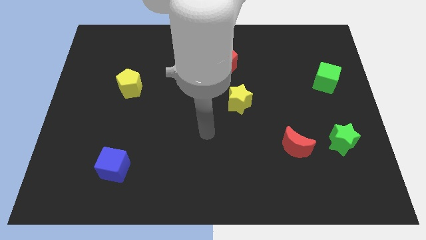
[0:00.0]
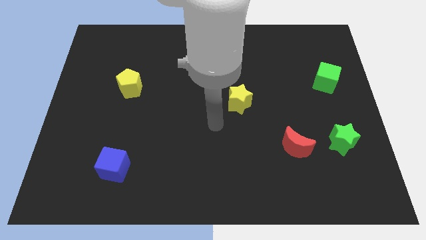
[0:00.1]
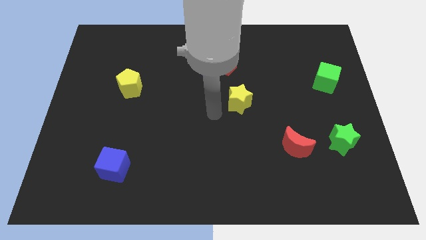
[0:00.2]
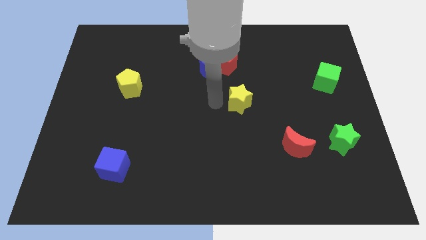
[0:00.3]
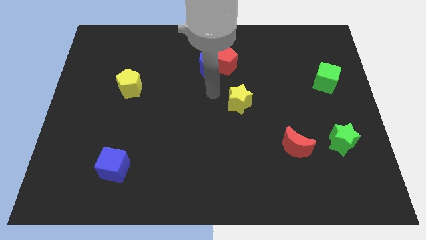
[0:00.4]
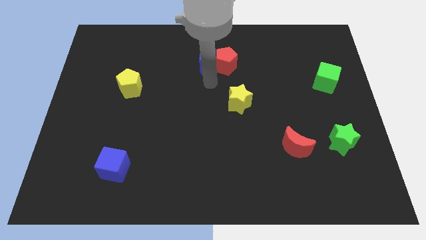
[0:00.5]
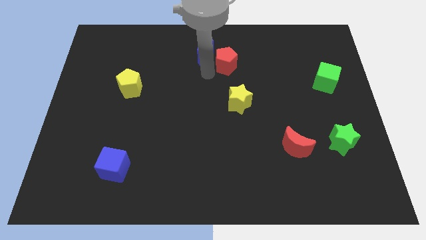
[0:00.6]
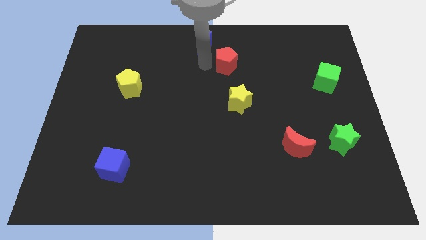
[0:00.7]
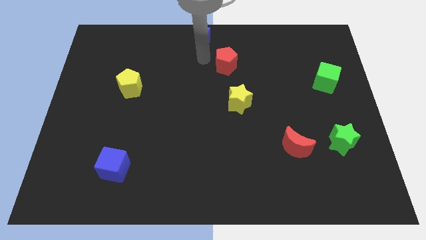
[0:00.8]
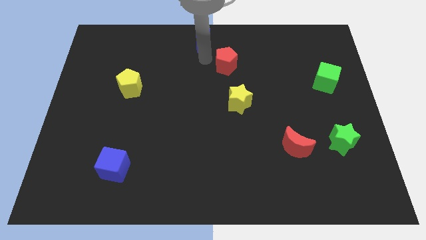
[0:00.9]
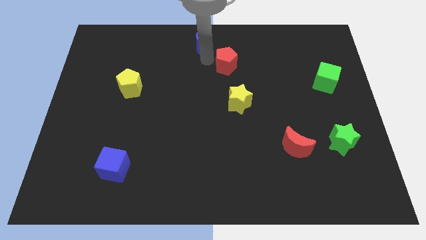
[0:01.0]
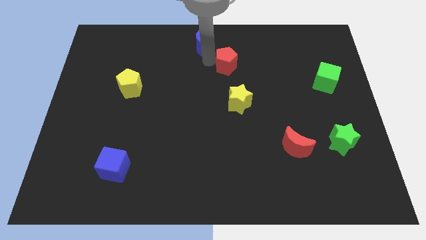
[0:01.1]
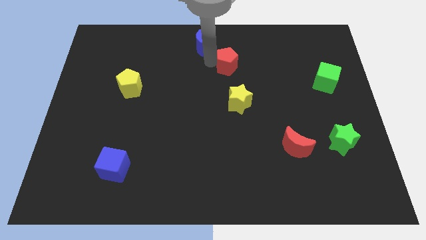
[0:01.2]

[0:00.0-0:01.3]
separate the red pentagon from the blue moon

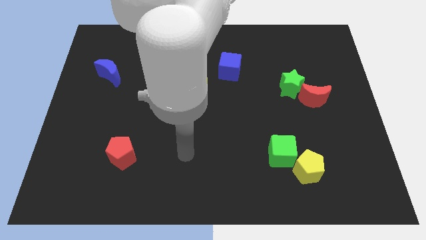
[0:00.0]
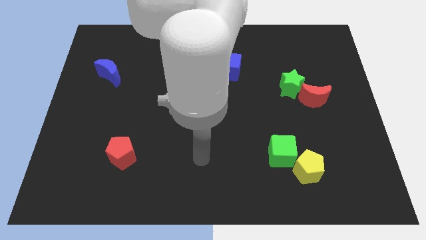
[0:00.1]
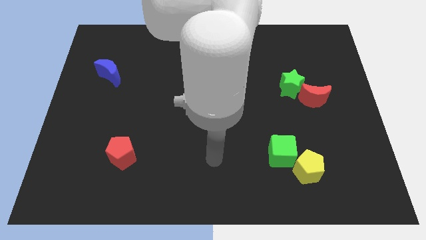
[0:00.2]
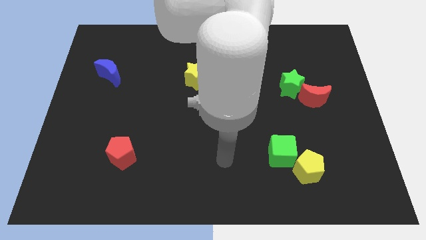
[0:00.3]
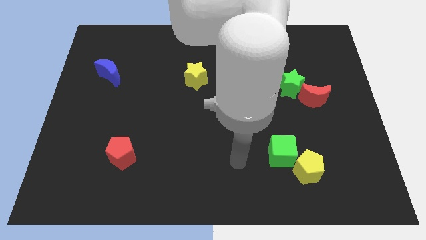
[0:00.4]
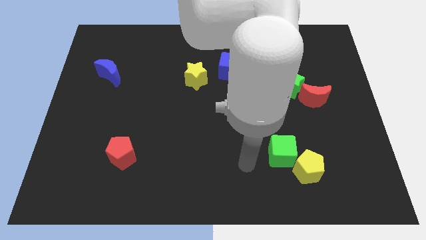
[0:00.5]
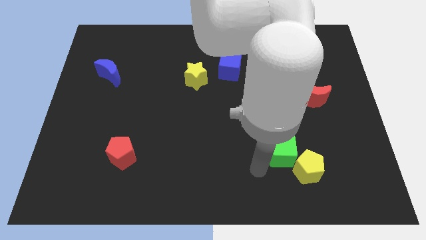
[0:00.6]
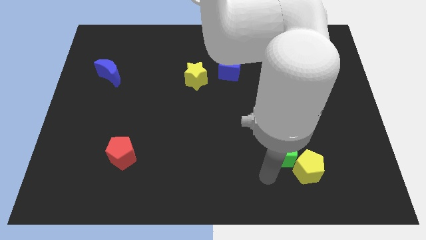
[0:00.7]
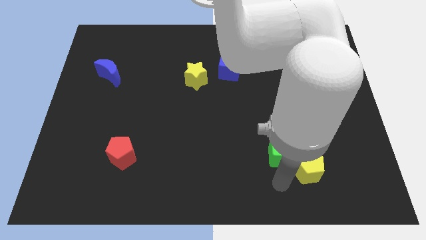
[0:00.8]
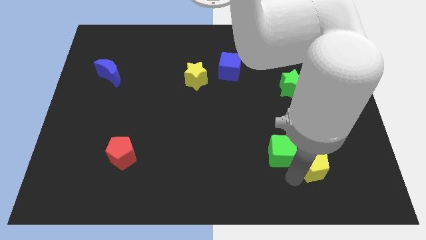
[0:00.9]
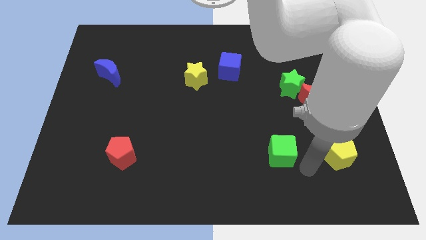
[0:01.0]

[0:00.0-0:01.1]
separate the green cube from the yellow pentagon

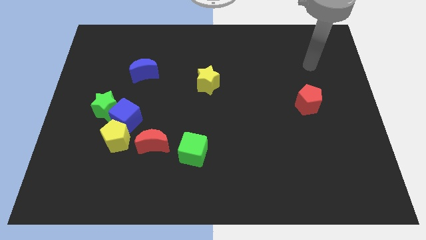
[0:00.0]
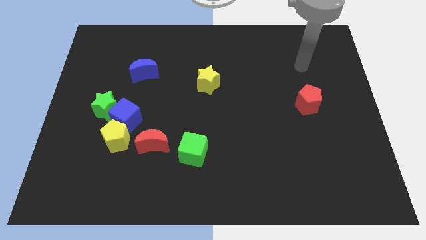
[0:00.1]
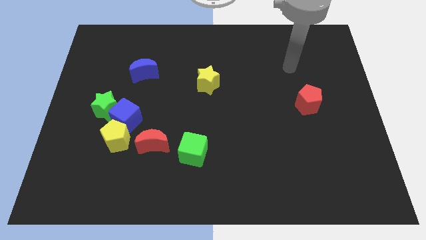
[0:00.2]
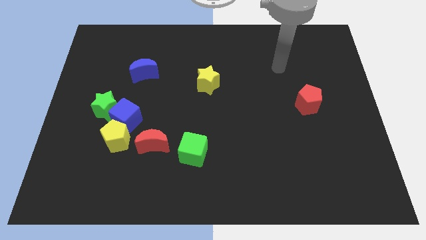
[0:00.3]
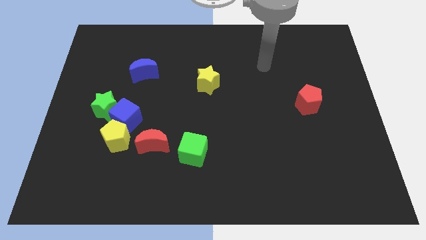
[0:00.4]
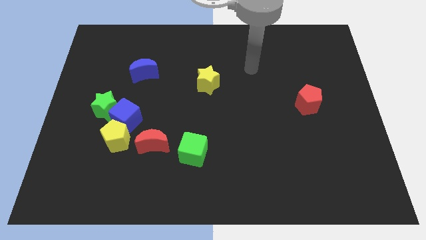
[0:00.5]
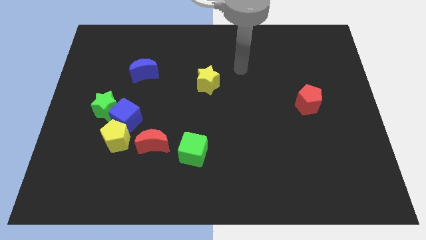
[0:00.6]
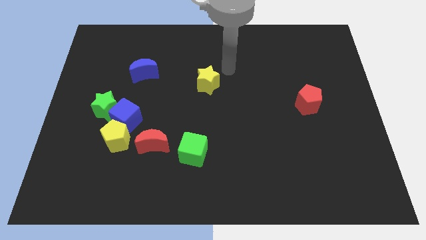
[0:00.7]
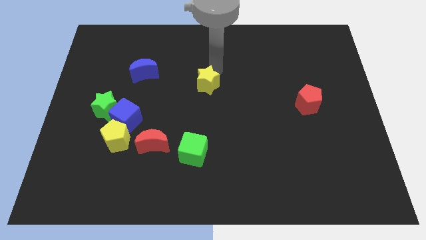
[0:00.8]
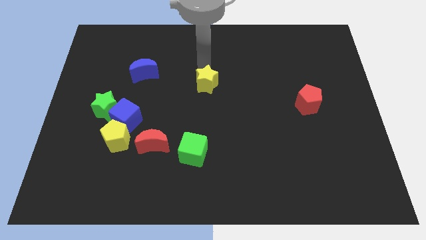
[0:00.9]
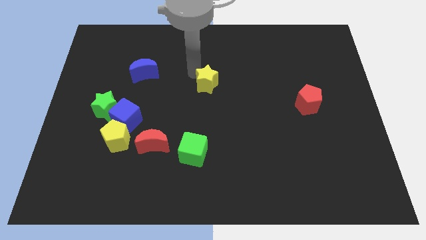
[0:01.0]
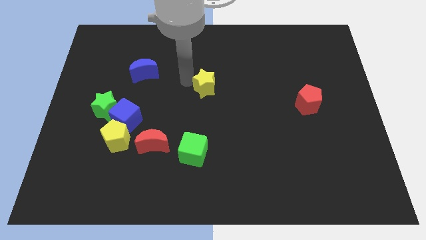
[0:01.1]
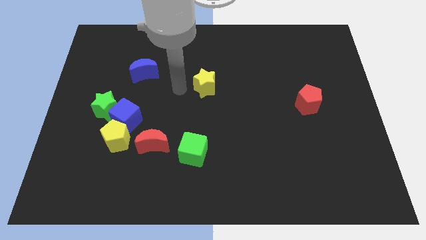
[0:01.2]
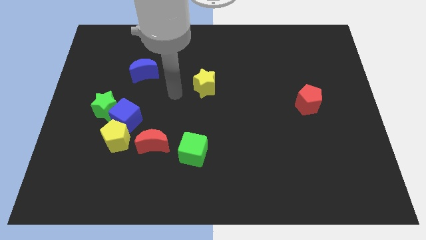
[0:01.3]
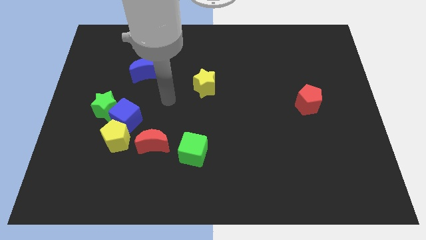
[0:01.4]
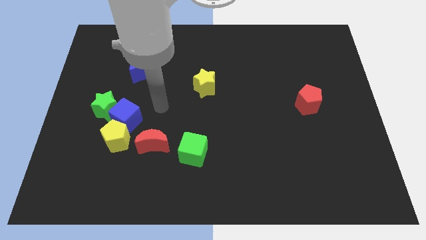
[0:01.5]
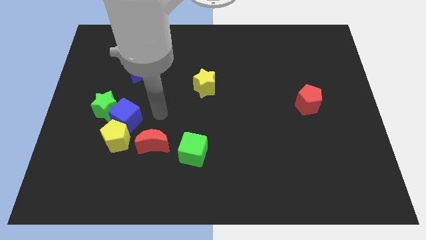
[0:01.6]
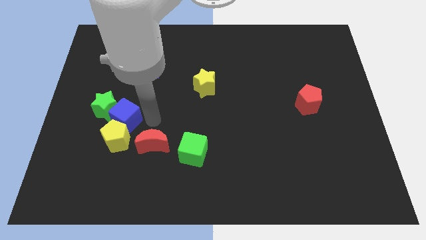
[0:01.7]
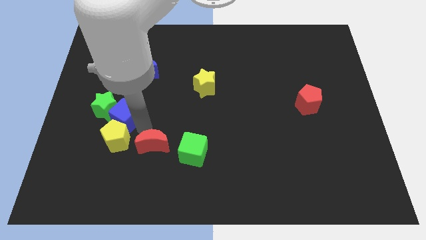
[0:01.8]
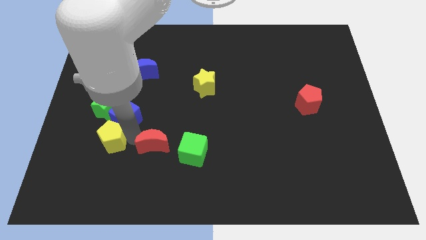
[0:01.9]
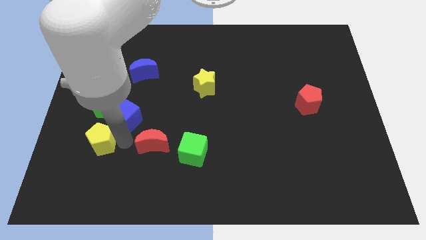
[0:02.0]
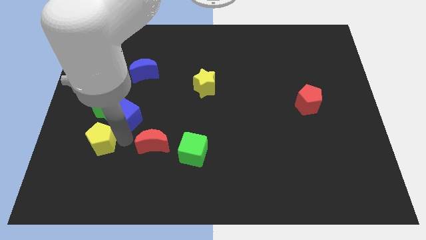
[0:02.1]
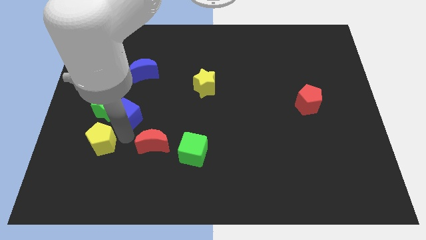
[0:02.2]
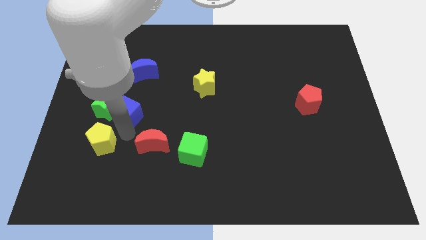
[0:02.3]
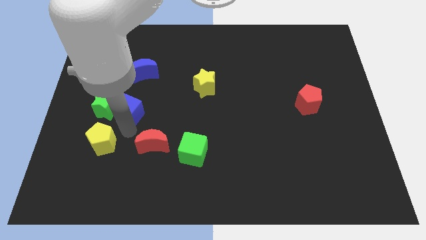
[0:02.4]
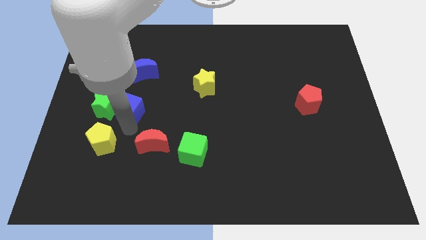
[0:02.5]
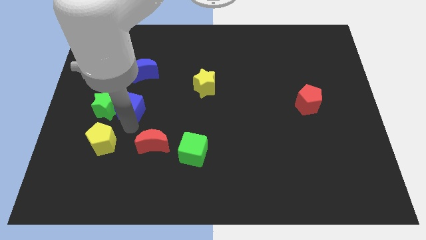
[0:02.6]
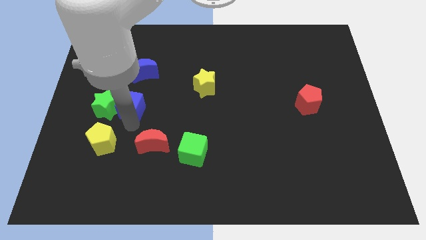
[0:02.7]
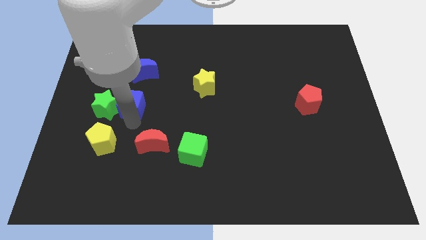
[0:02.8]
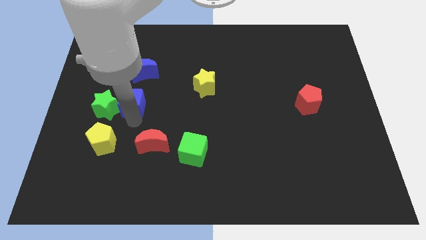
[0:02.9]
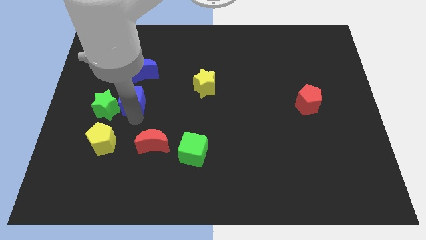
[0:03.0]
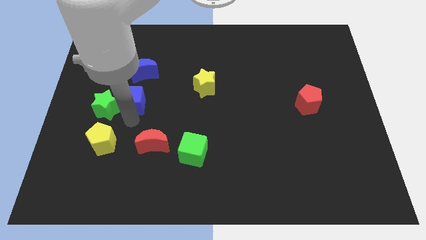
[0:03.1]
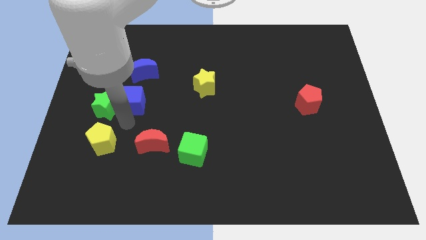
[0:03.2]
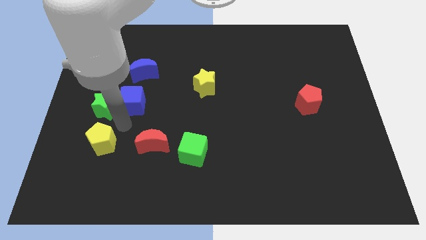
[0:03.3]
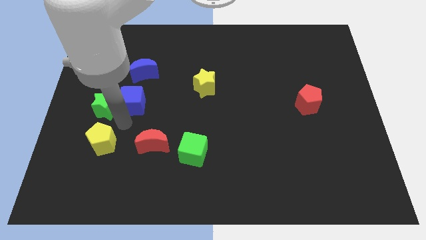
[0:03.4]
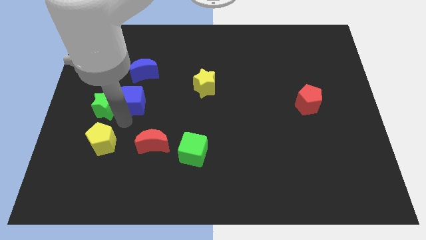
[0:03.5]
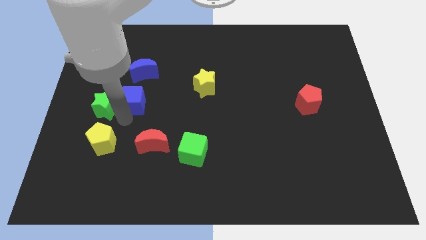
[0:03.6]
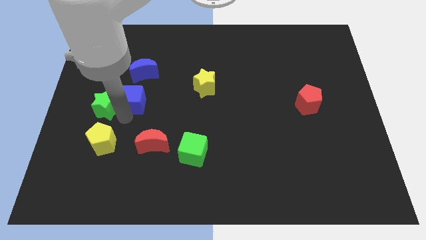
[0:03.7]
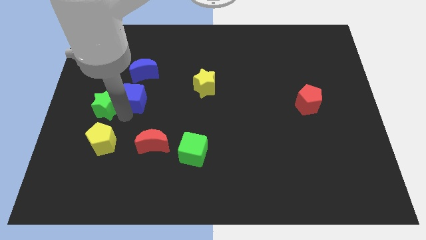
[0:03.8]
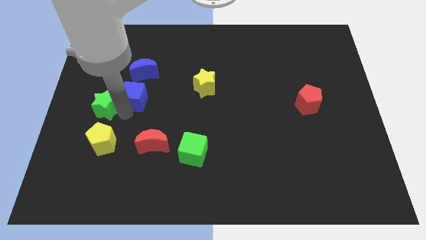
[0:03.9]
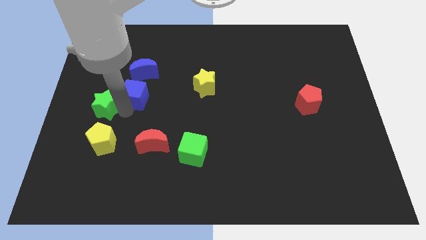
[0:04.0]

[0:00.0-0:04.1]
move the blue cube away from the yellow pentagon, green star, and red moon

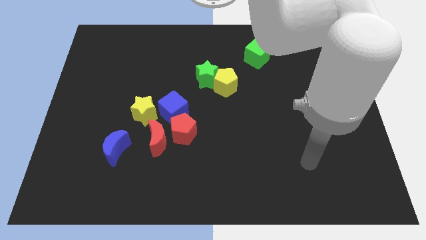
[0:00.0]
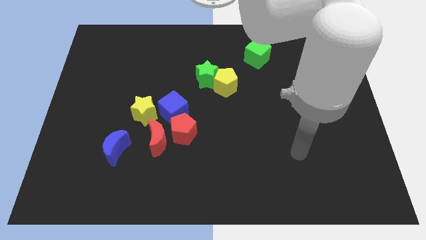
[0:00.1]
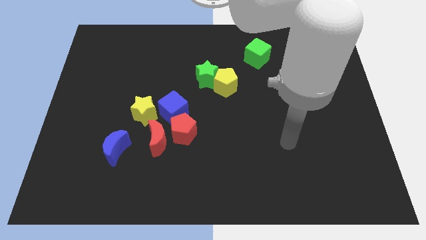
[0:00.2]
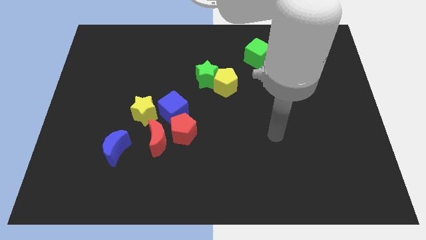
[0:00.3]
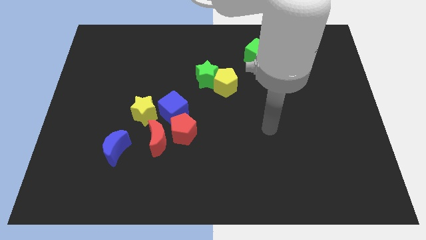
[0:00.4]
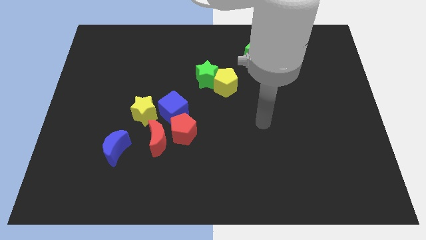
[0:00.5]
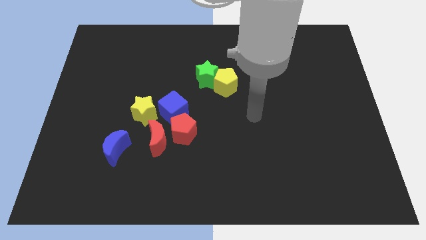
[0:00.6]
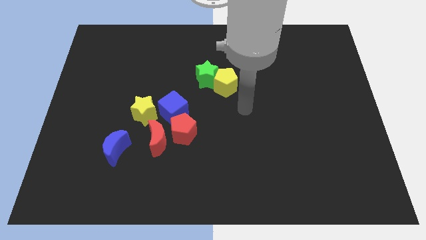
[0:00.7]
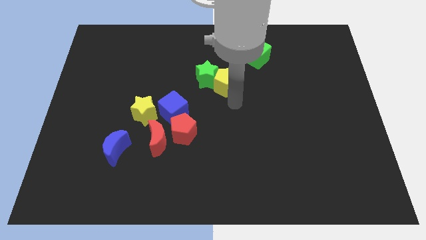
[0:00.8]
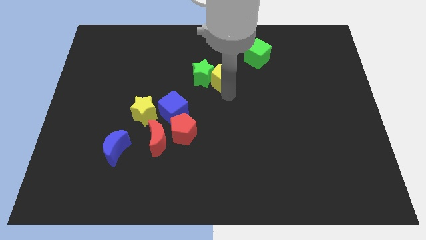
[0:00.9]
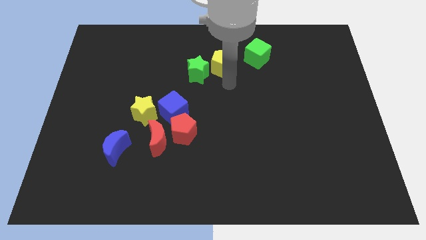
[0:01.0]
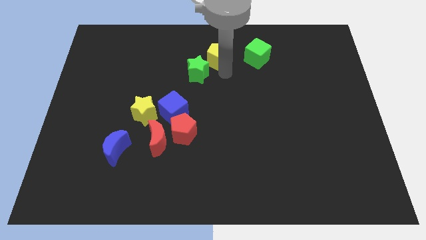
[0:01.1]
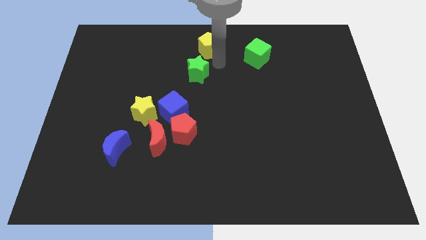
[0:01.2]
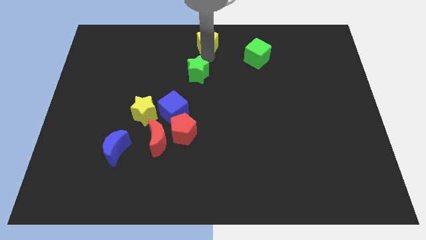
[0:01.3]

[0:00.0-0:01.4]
pull the green star apart from the yellow pentagon

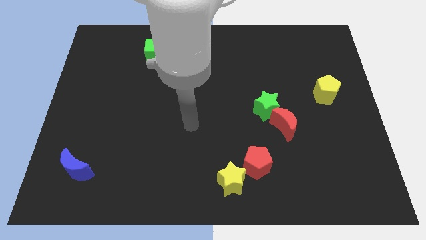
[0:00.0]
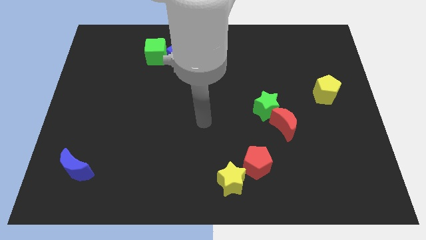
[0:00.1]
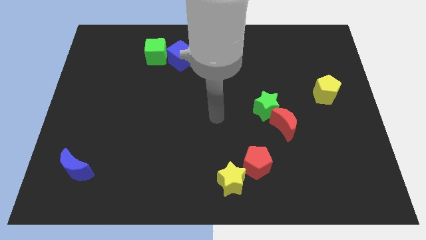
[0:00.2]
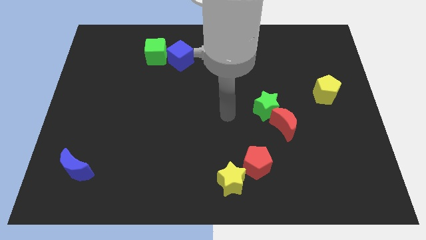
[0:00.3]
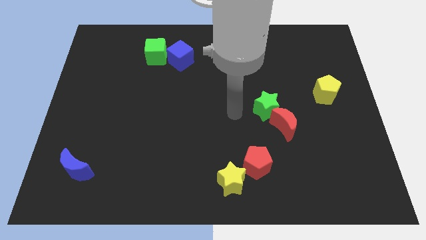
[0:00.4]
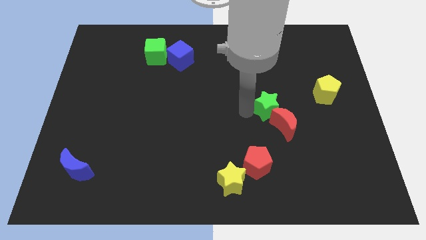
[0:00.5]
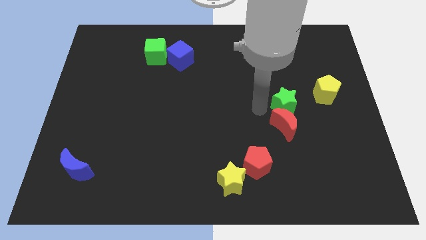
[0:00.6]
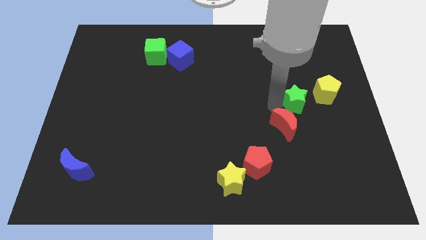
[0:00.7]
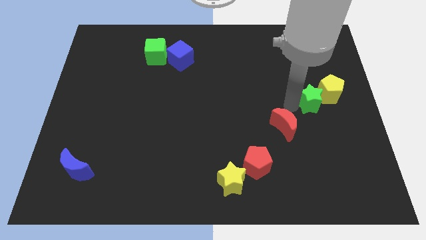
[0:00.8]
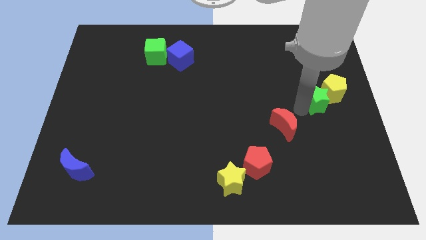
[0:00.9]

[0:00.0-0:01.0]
pull the red moon apart from the green star

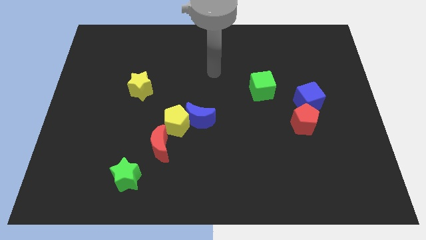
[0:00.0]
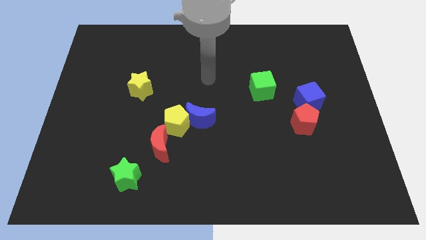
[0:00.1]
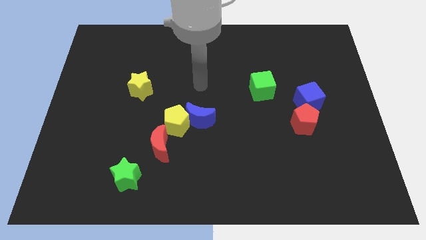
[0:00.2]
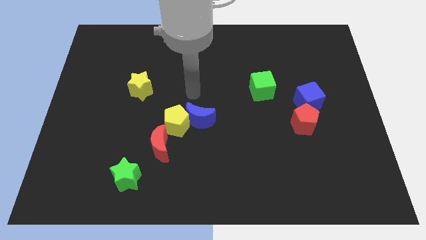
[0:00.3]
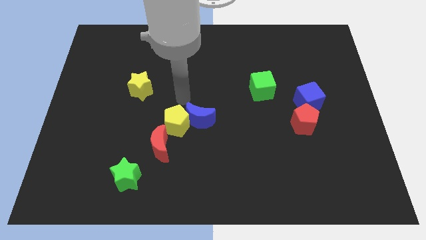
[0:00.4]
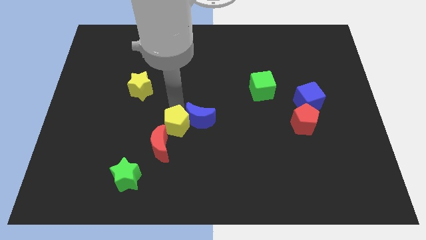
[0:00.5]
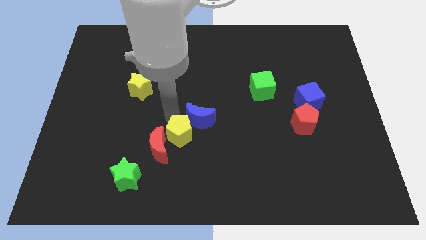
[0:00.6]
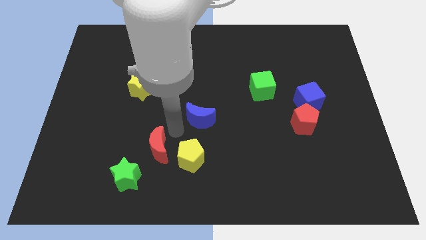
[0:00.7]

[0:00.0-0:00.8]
separate the blue moon from the yellow pentagon
